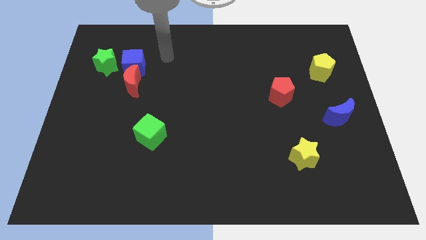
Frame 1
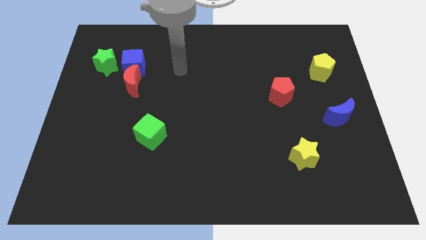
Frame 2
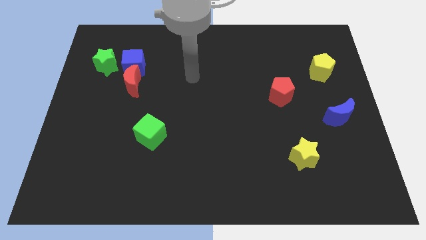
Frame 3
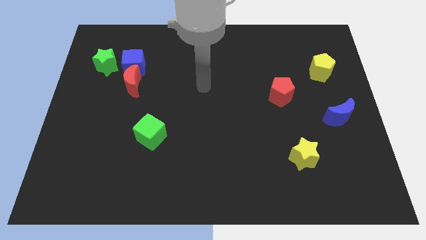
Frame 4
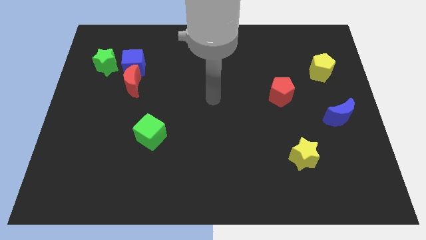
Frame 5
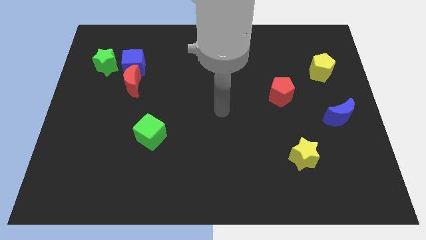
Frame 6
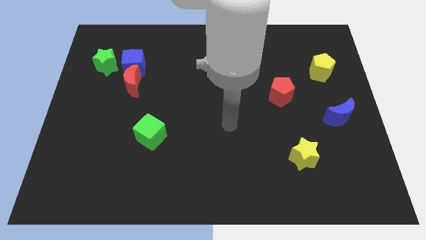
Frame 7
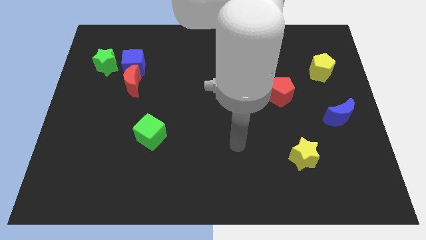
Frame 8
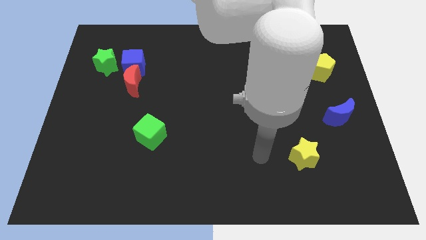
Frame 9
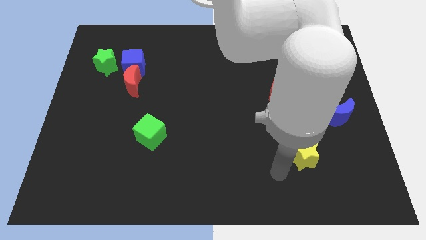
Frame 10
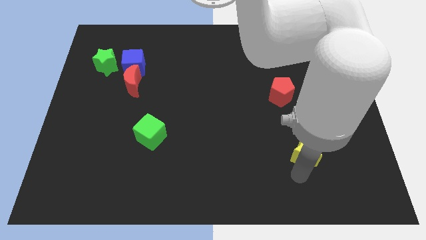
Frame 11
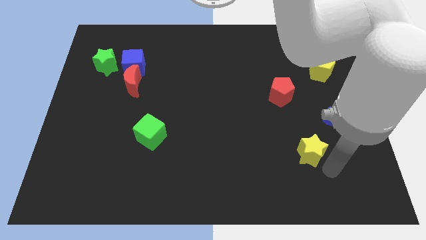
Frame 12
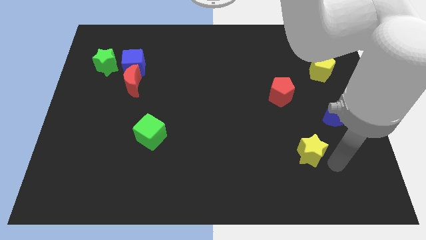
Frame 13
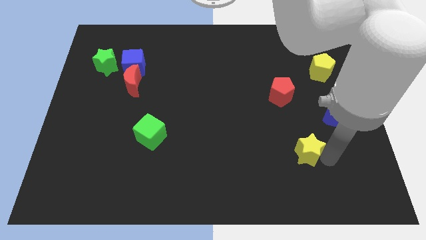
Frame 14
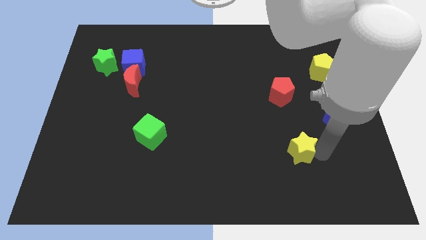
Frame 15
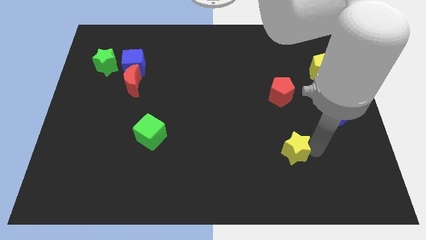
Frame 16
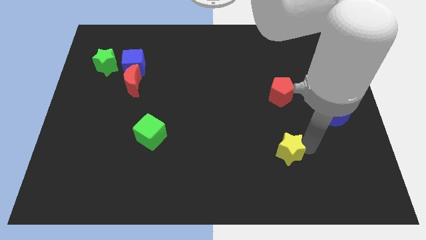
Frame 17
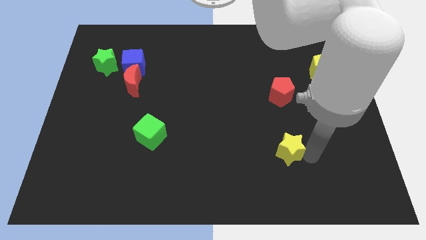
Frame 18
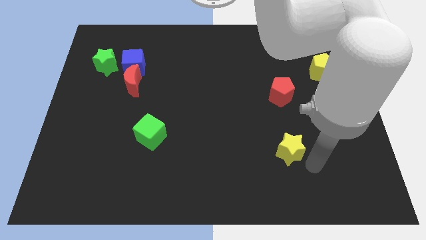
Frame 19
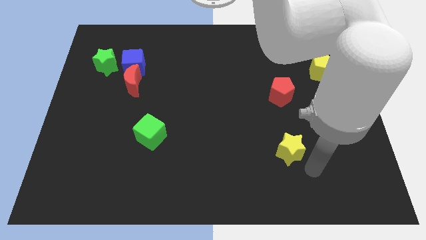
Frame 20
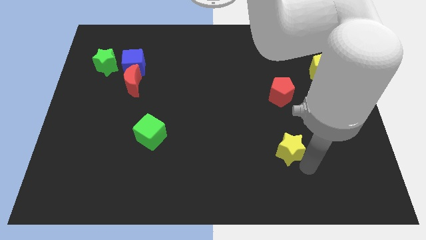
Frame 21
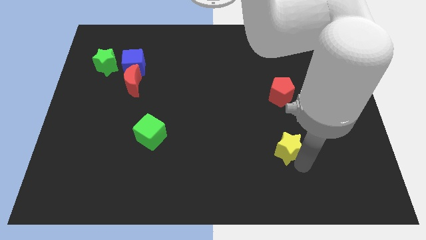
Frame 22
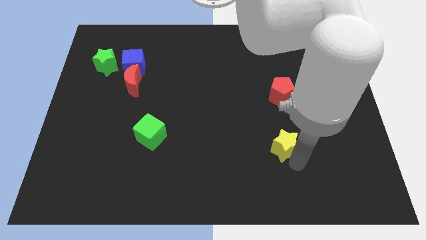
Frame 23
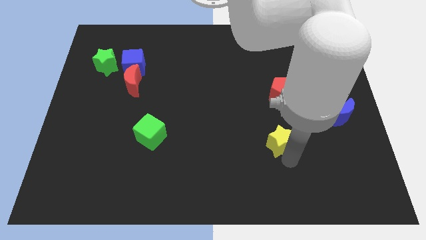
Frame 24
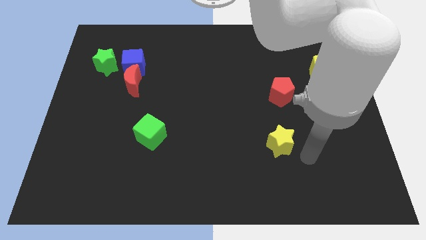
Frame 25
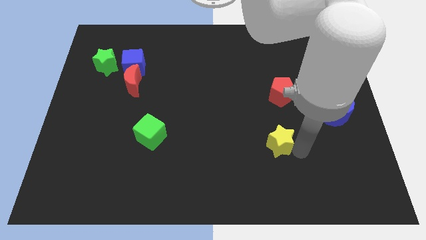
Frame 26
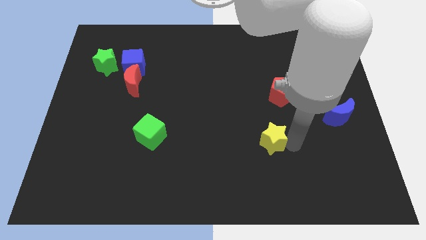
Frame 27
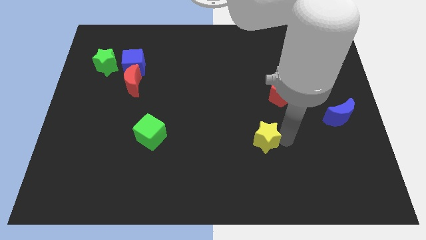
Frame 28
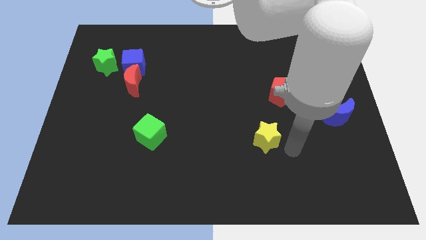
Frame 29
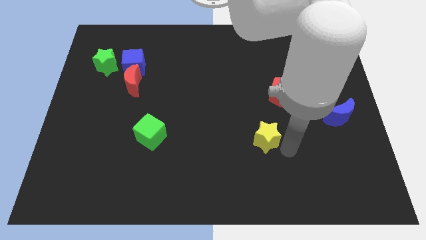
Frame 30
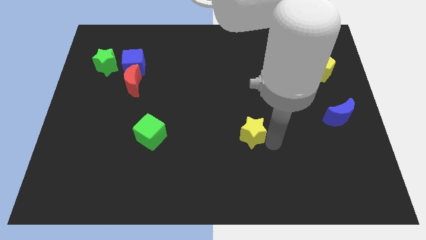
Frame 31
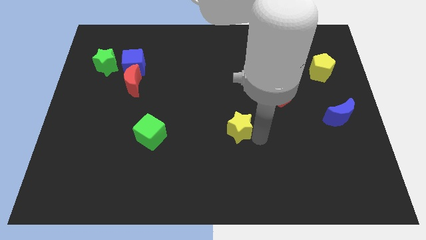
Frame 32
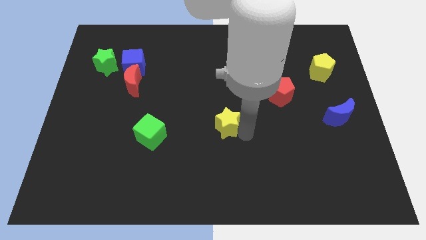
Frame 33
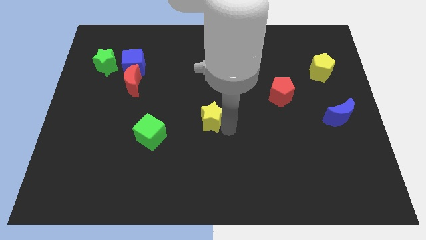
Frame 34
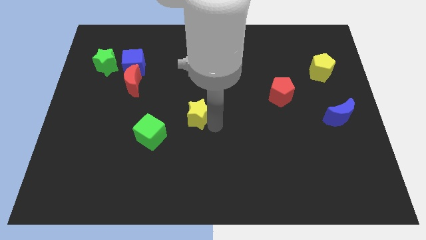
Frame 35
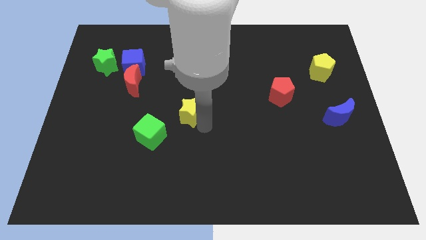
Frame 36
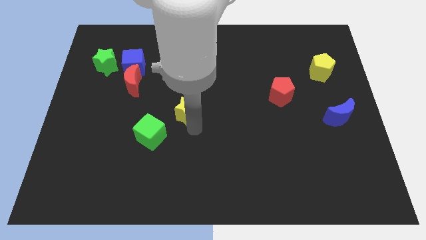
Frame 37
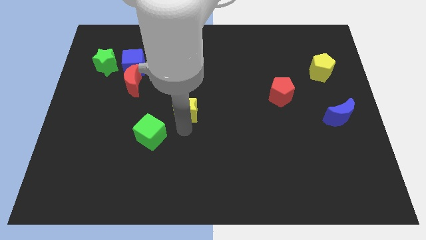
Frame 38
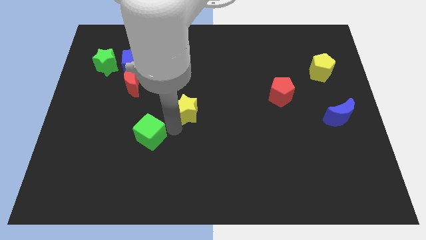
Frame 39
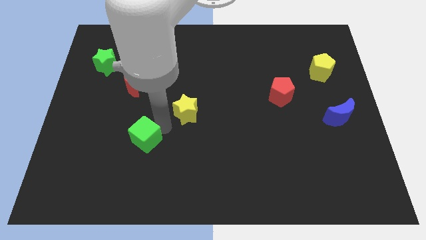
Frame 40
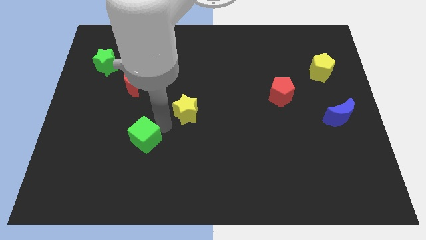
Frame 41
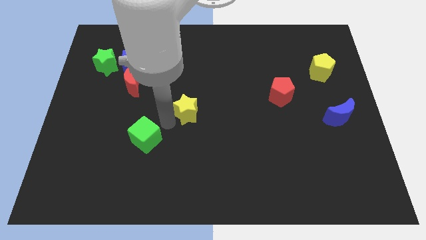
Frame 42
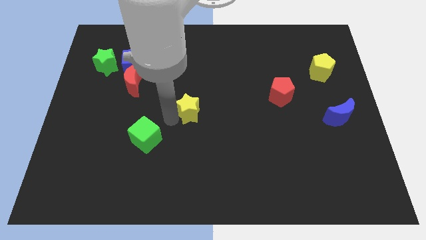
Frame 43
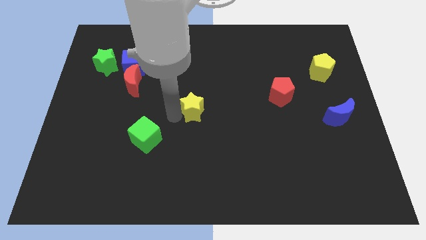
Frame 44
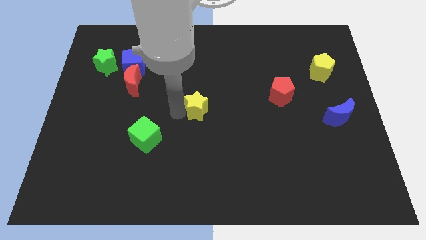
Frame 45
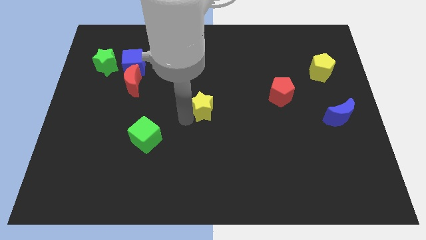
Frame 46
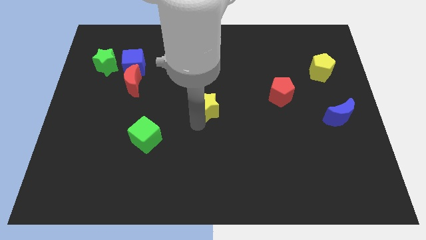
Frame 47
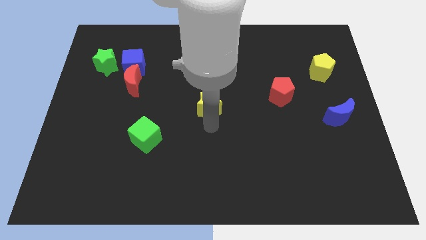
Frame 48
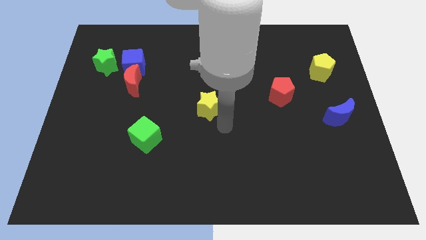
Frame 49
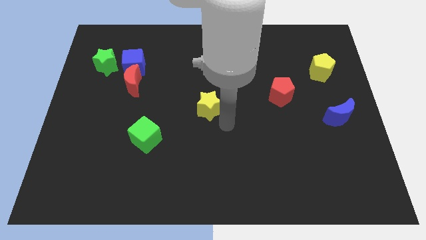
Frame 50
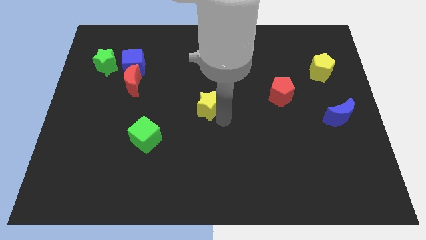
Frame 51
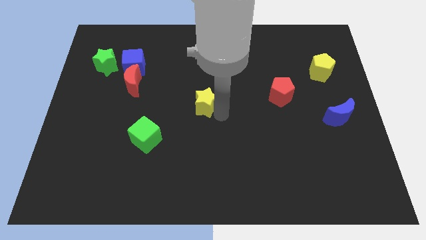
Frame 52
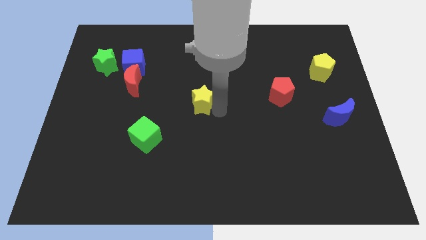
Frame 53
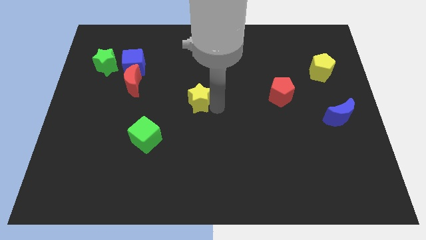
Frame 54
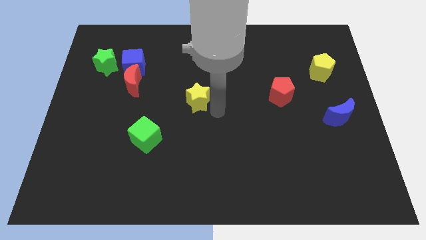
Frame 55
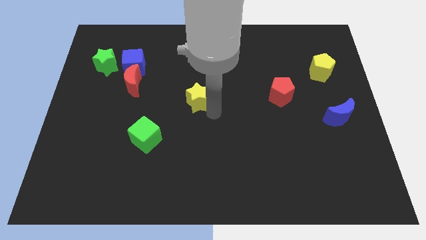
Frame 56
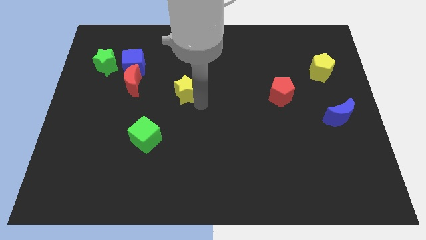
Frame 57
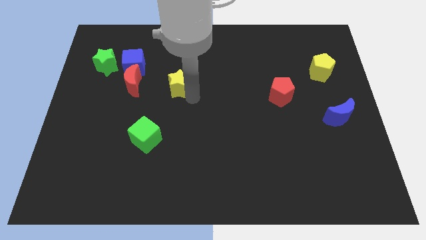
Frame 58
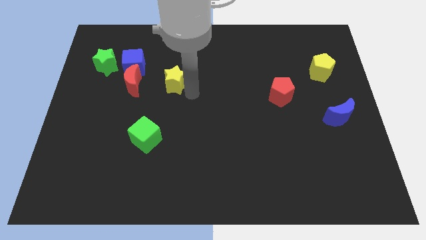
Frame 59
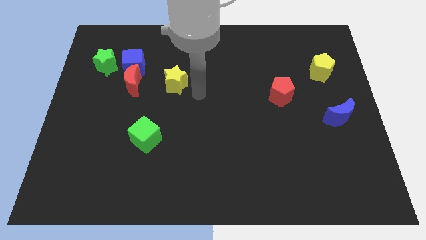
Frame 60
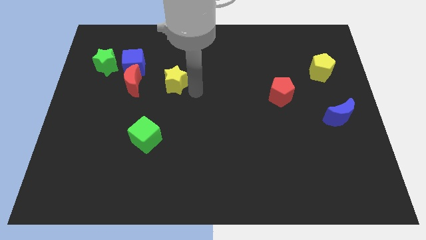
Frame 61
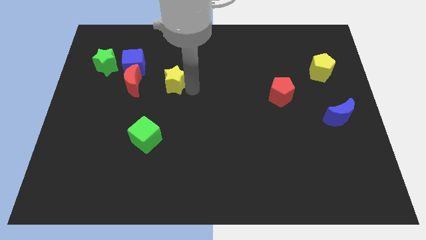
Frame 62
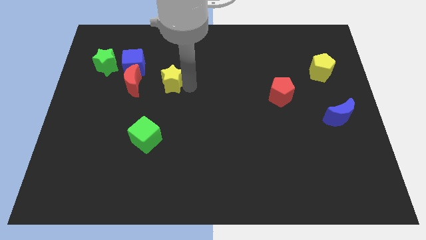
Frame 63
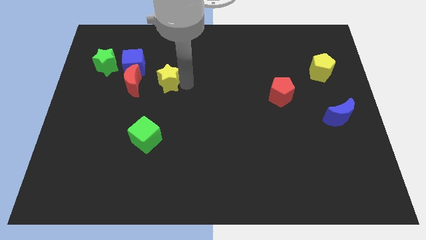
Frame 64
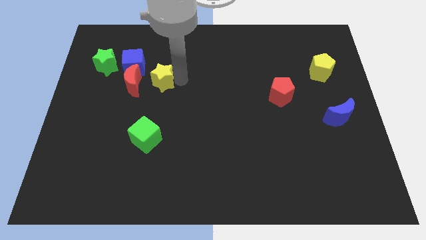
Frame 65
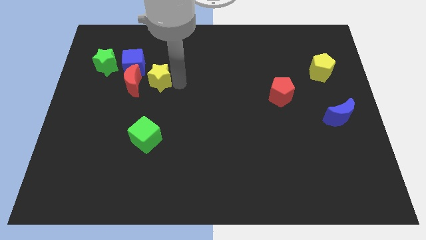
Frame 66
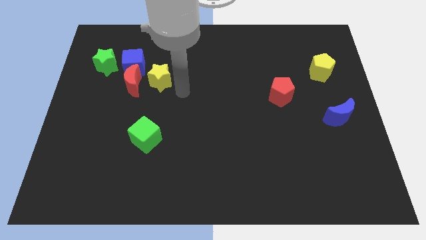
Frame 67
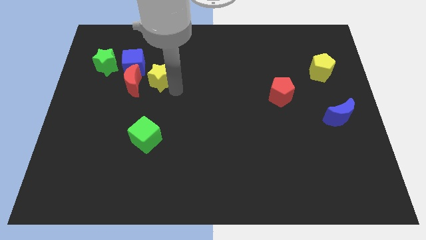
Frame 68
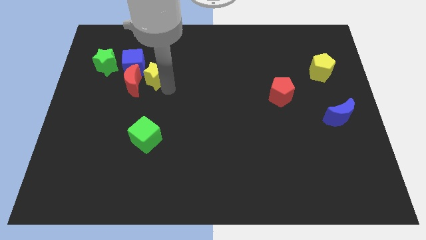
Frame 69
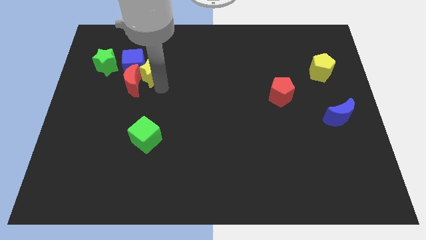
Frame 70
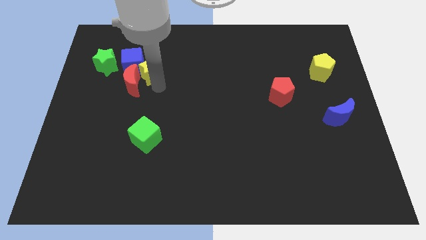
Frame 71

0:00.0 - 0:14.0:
slide the yellow star towards the blue cube

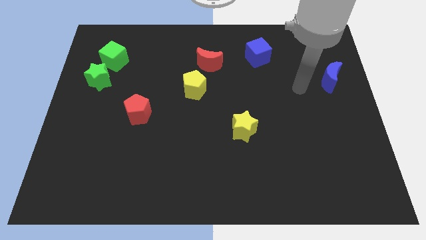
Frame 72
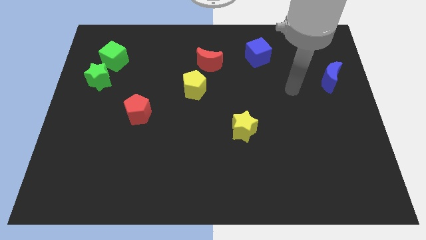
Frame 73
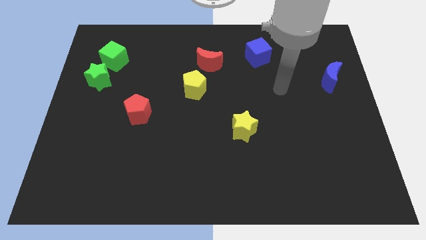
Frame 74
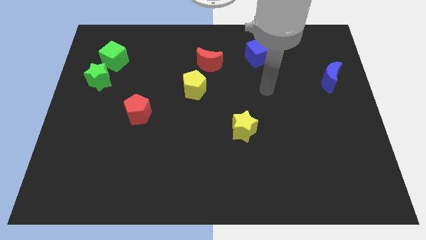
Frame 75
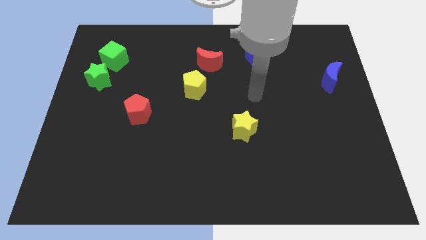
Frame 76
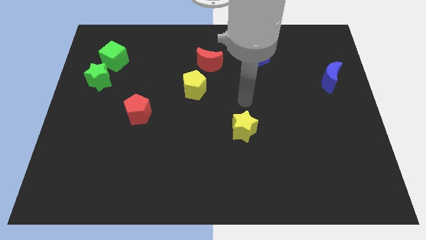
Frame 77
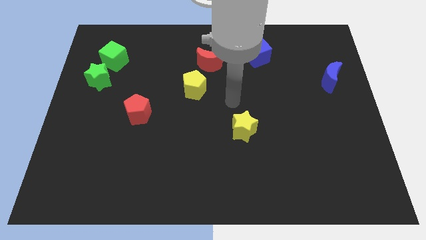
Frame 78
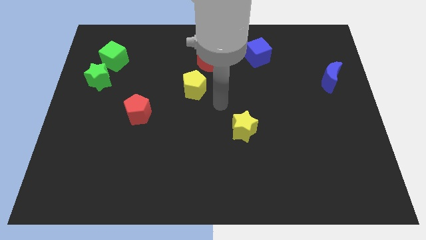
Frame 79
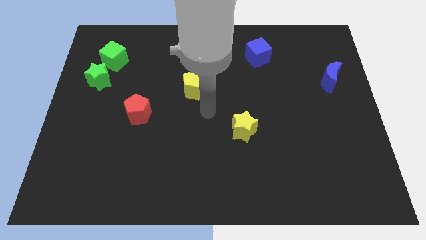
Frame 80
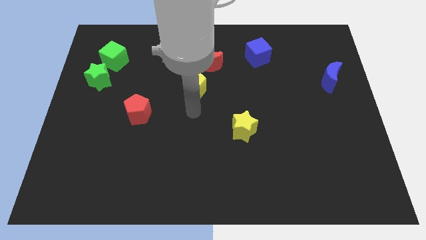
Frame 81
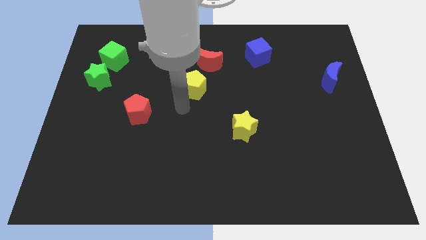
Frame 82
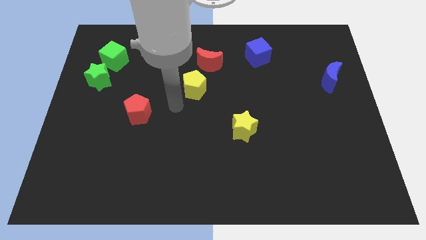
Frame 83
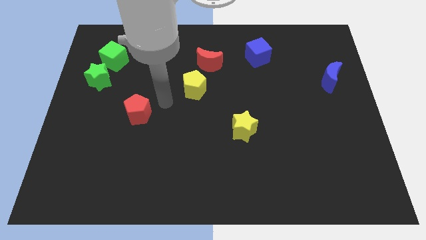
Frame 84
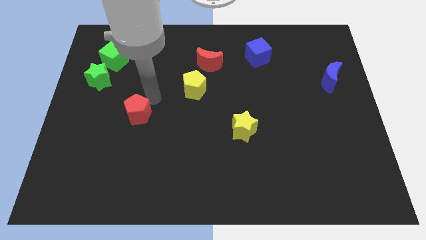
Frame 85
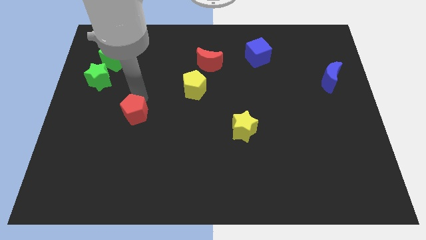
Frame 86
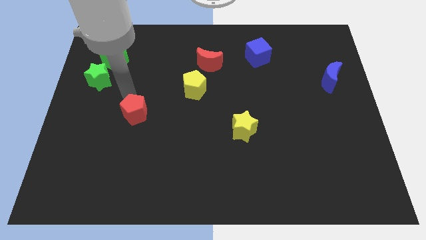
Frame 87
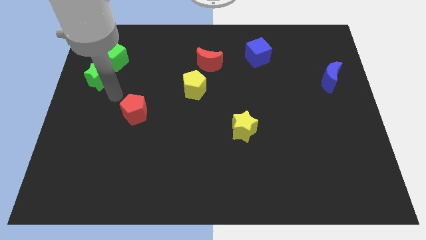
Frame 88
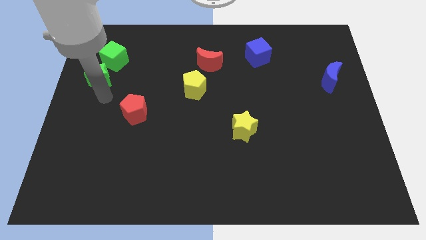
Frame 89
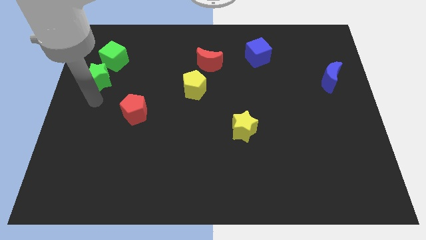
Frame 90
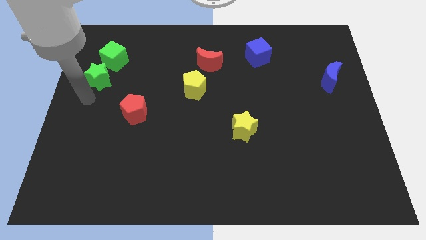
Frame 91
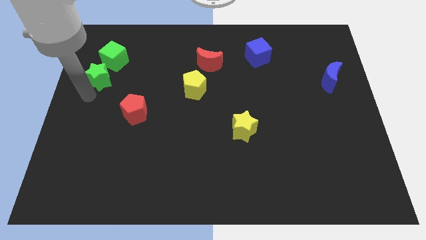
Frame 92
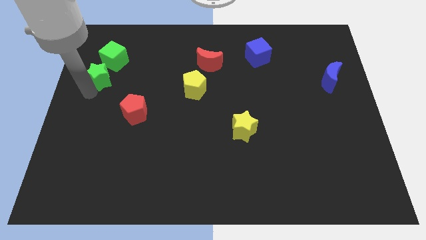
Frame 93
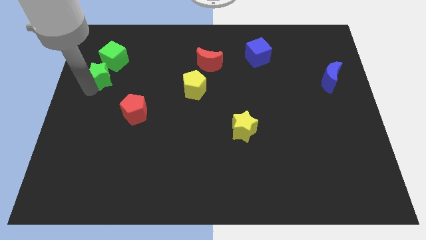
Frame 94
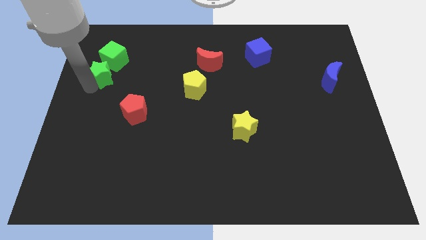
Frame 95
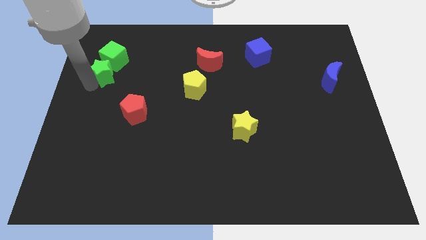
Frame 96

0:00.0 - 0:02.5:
put the green star towards the green cube
